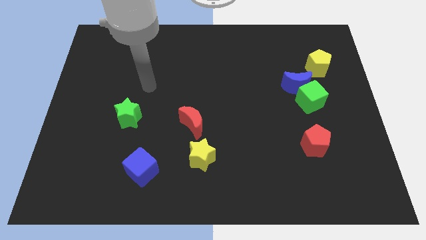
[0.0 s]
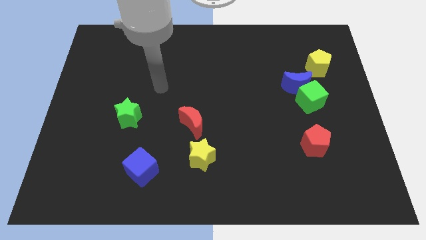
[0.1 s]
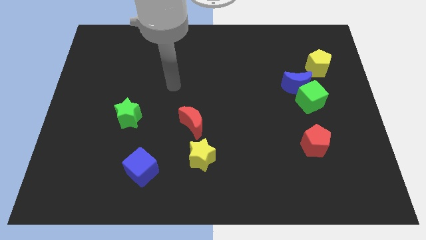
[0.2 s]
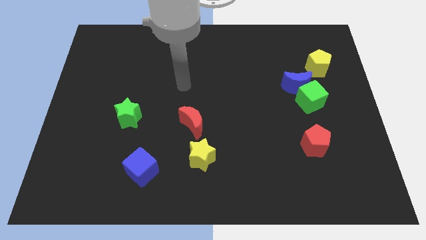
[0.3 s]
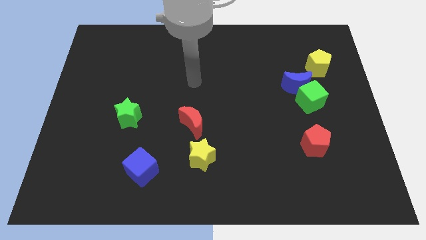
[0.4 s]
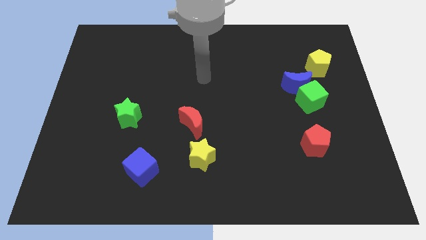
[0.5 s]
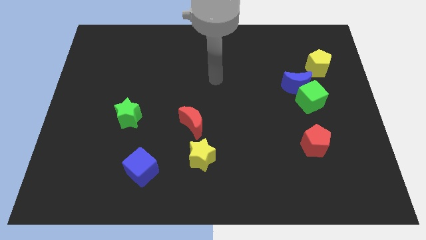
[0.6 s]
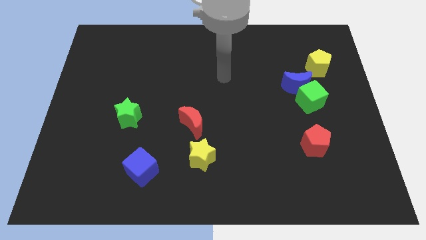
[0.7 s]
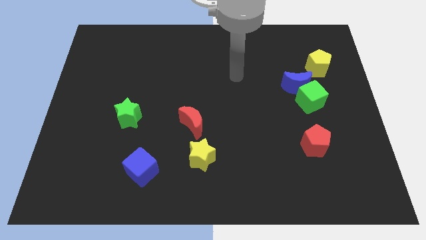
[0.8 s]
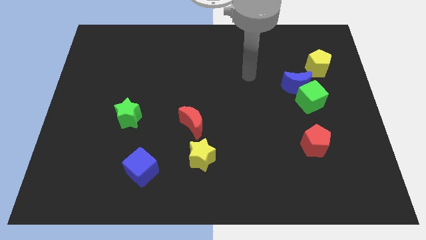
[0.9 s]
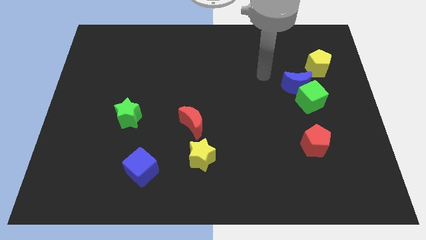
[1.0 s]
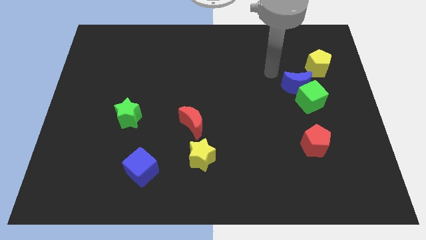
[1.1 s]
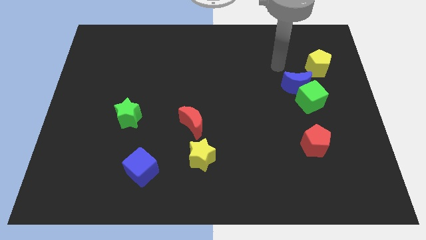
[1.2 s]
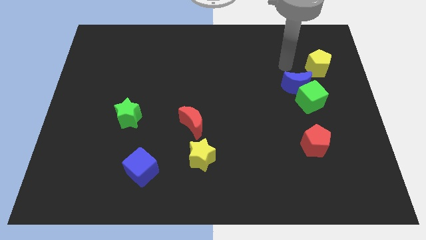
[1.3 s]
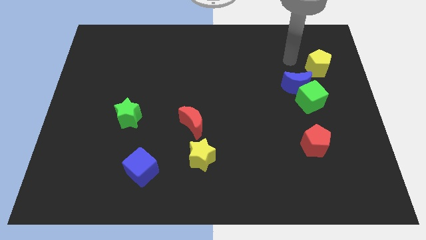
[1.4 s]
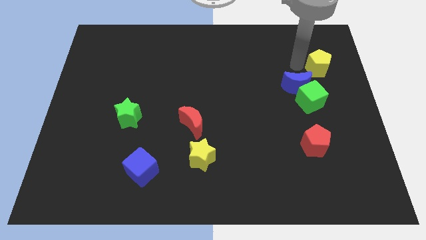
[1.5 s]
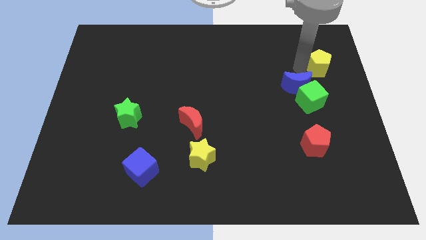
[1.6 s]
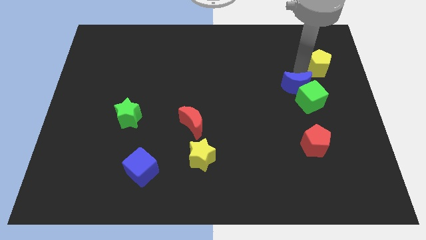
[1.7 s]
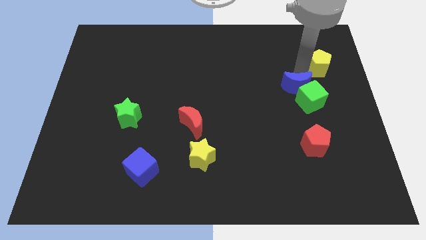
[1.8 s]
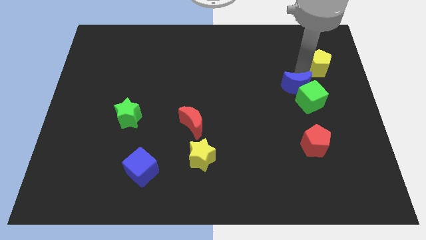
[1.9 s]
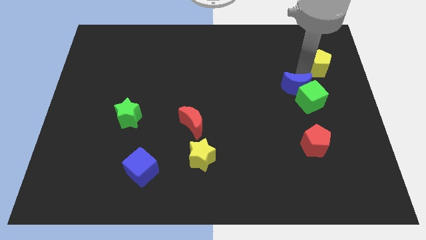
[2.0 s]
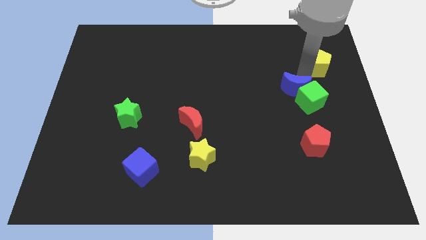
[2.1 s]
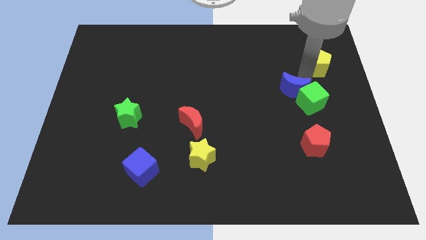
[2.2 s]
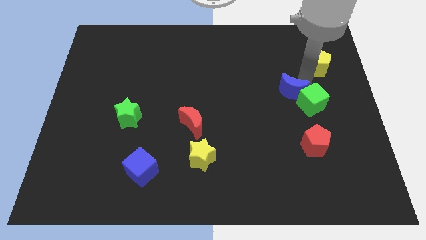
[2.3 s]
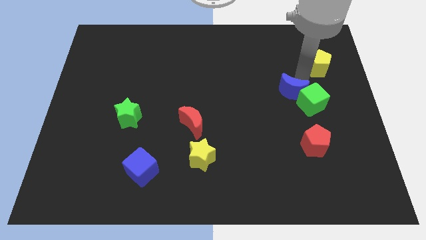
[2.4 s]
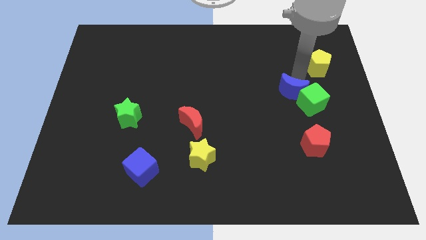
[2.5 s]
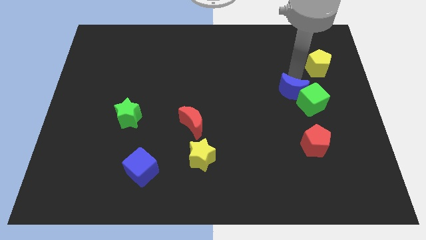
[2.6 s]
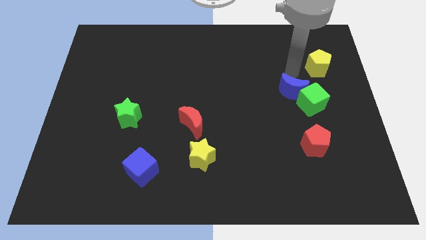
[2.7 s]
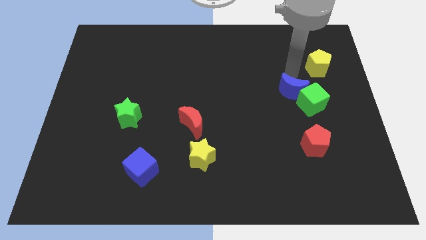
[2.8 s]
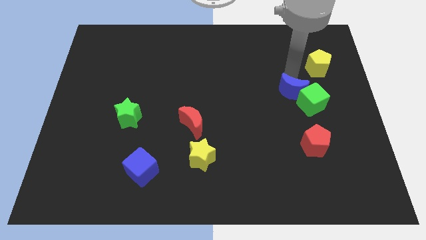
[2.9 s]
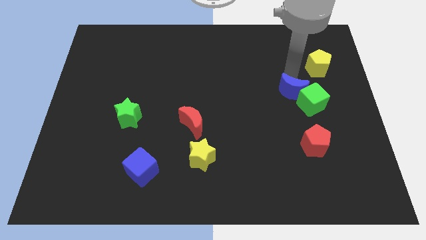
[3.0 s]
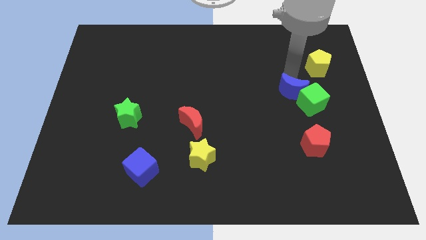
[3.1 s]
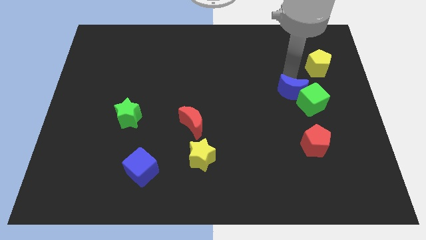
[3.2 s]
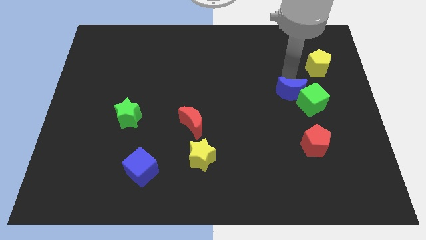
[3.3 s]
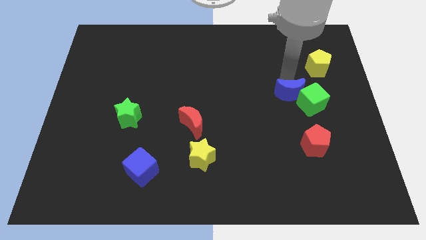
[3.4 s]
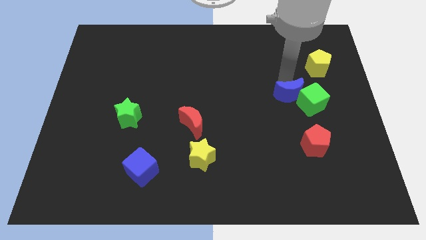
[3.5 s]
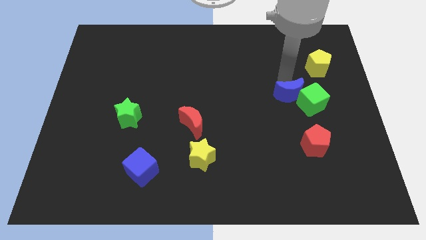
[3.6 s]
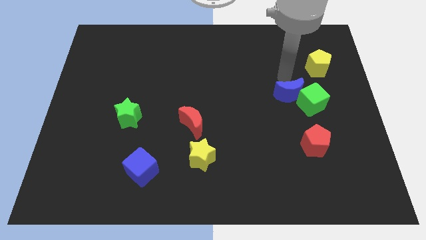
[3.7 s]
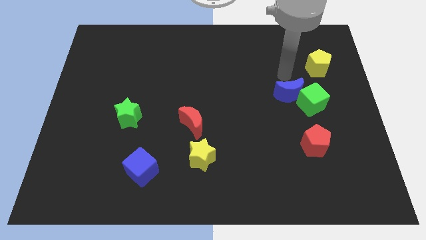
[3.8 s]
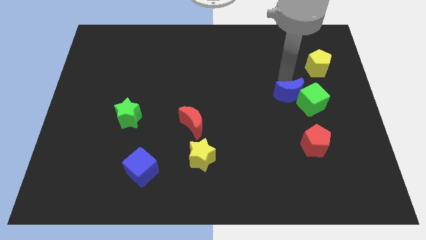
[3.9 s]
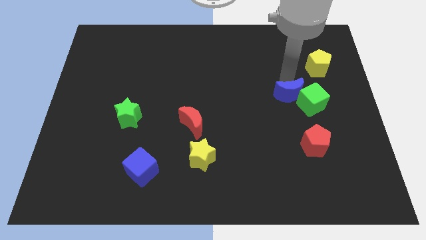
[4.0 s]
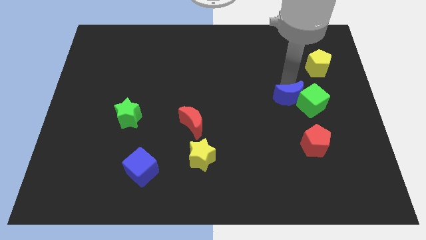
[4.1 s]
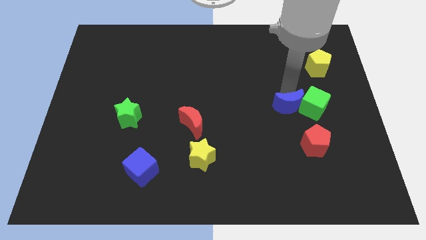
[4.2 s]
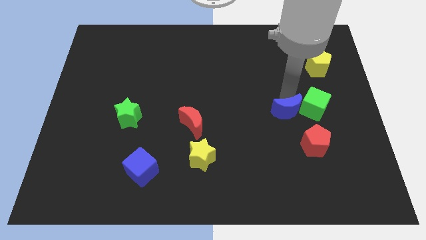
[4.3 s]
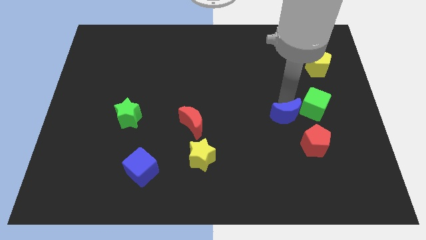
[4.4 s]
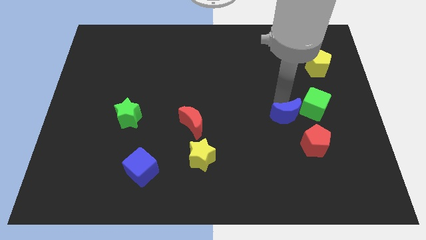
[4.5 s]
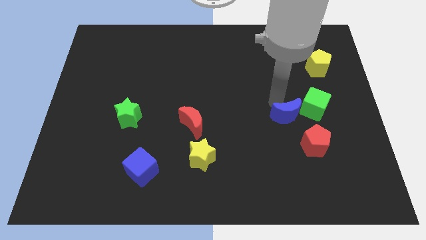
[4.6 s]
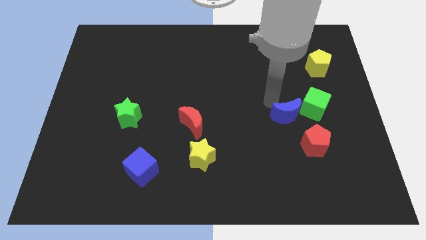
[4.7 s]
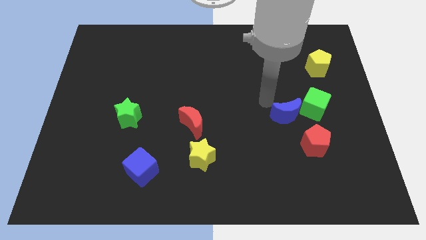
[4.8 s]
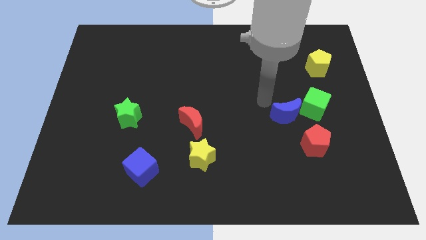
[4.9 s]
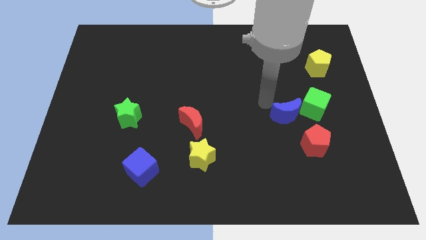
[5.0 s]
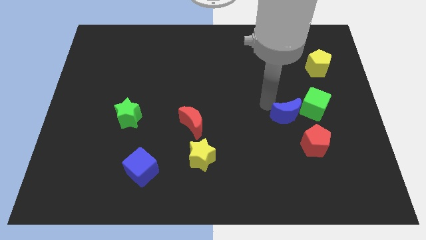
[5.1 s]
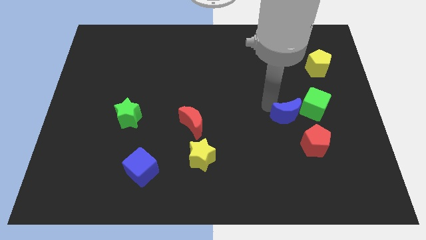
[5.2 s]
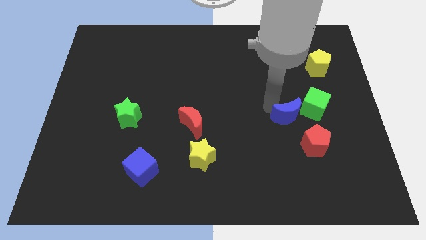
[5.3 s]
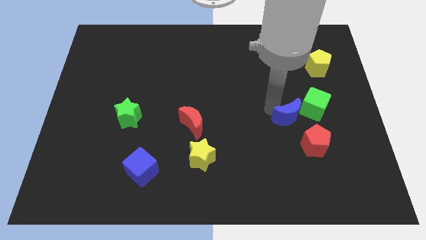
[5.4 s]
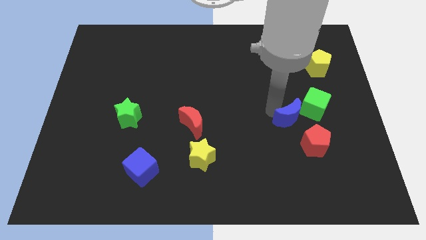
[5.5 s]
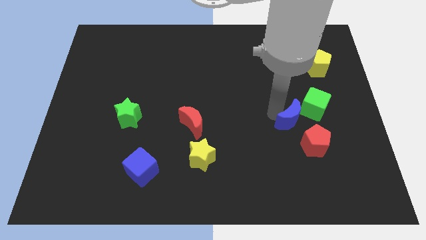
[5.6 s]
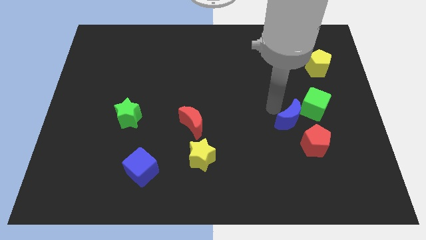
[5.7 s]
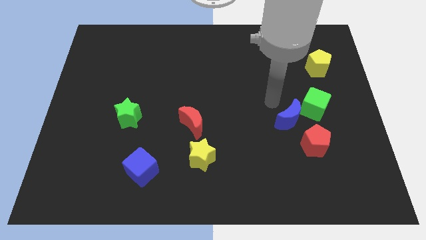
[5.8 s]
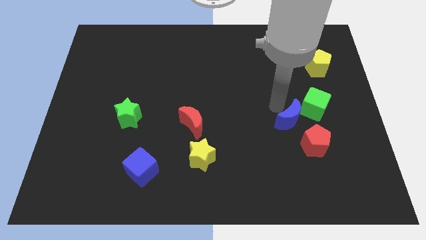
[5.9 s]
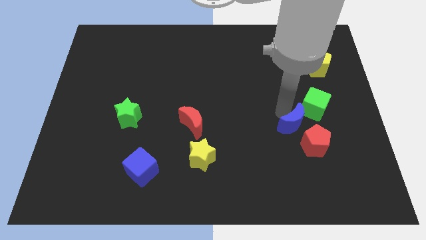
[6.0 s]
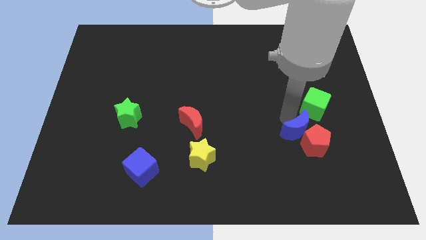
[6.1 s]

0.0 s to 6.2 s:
move the blue moon to the red pentagon
